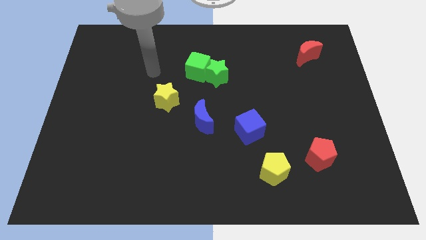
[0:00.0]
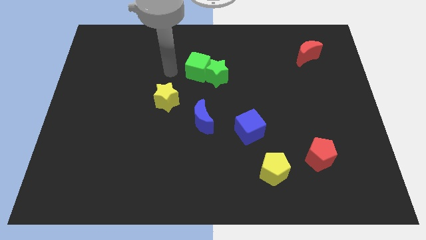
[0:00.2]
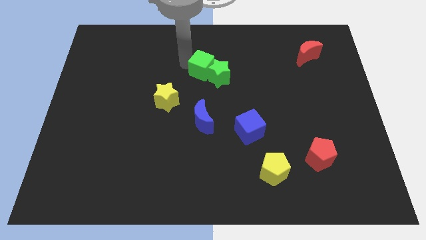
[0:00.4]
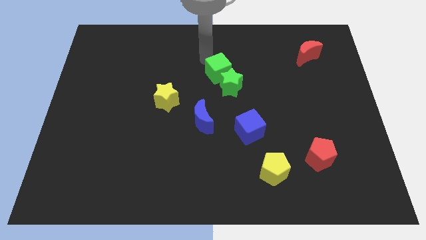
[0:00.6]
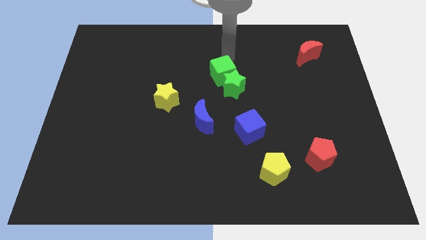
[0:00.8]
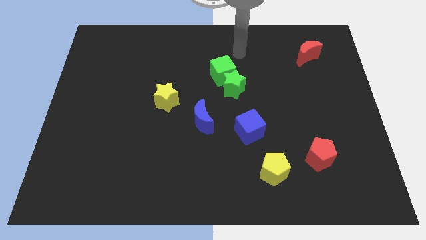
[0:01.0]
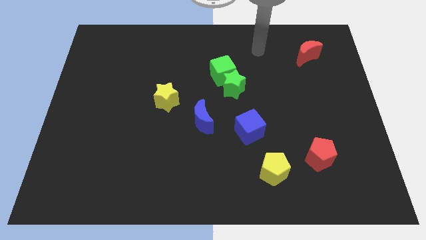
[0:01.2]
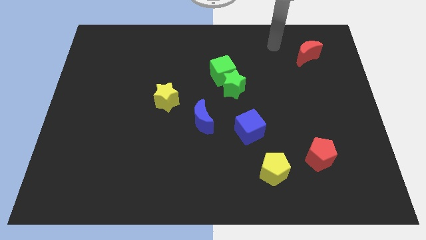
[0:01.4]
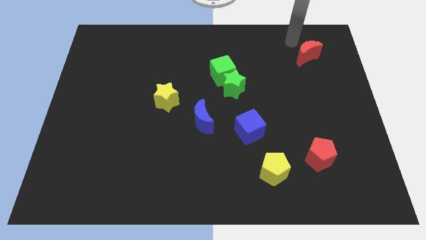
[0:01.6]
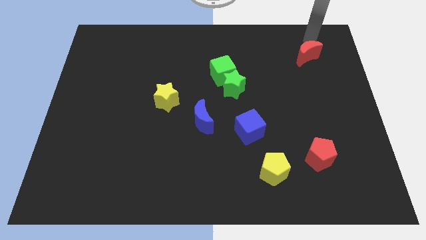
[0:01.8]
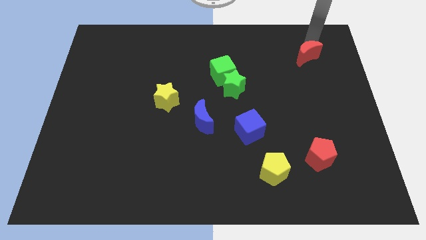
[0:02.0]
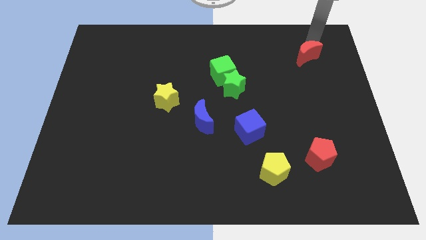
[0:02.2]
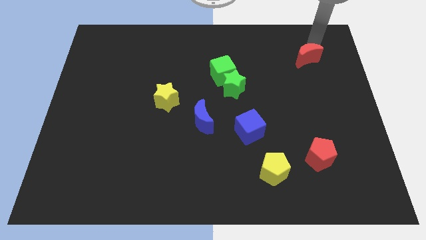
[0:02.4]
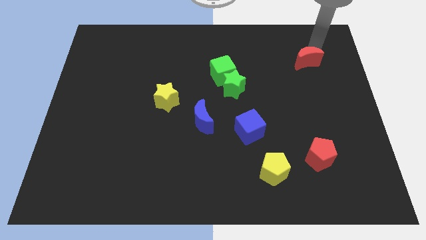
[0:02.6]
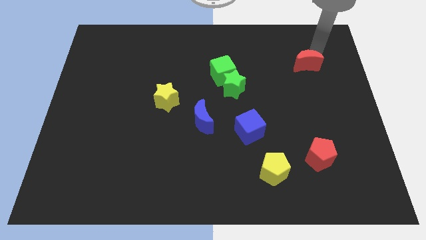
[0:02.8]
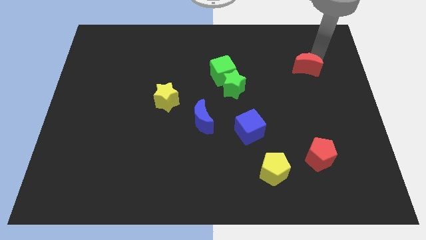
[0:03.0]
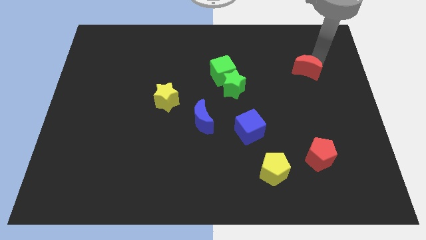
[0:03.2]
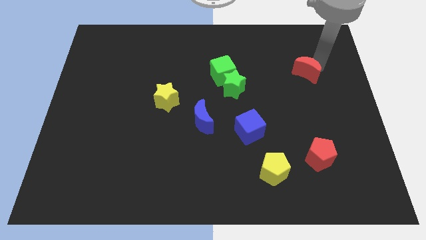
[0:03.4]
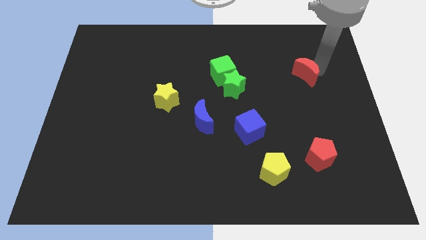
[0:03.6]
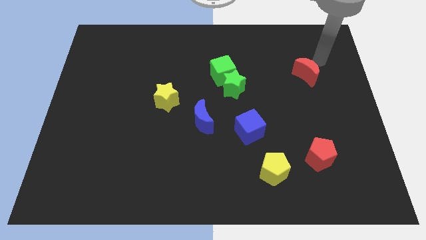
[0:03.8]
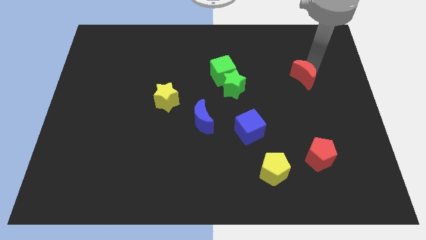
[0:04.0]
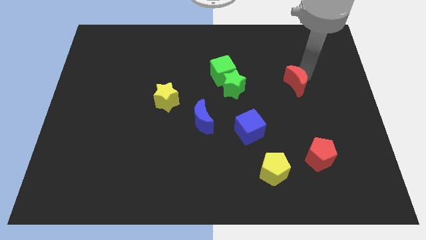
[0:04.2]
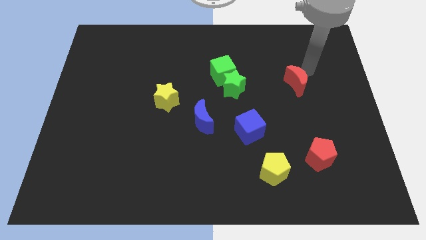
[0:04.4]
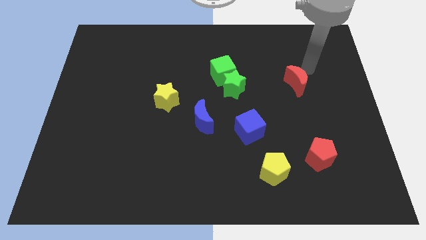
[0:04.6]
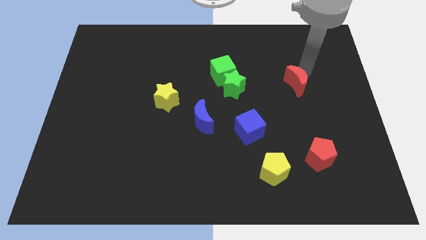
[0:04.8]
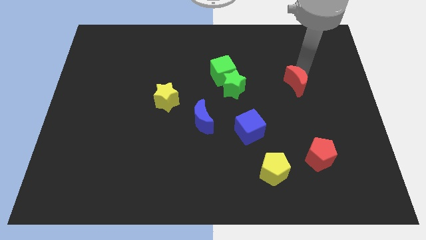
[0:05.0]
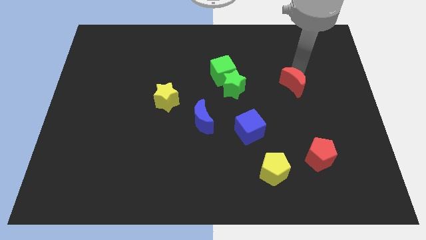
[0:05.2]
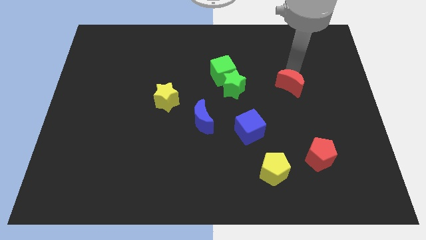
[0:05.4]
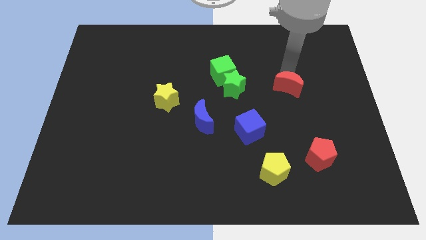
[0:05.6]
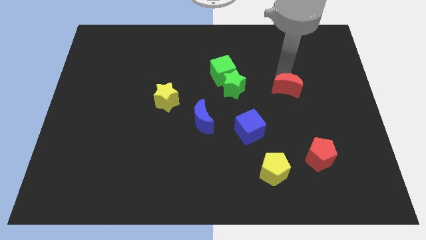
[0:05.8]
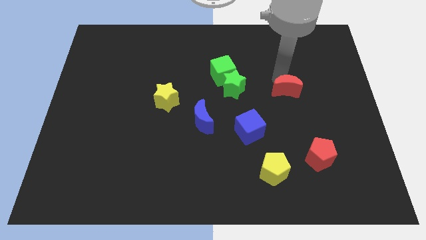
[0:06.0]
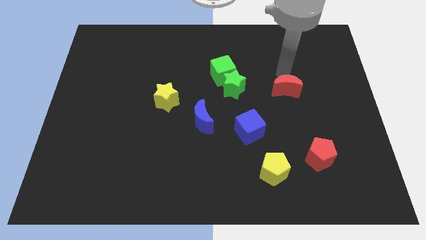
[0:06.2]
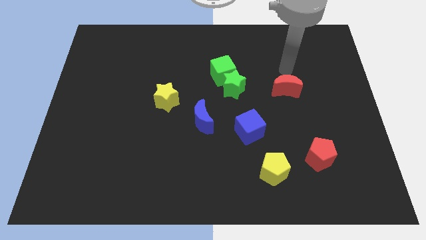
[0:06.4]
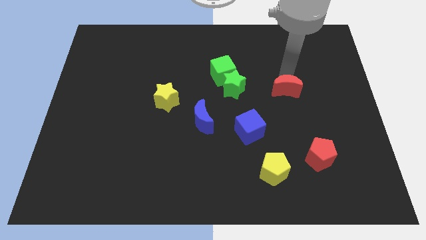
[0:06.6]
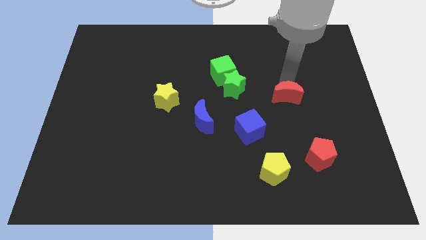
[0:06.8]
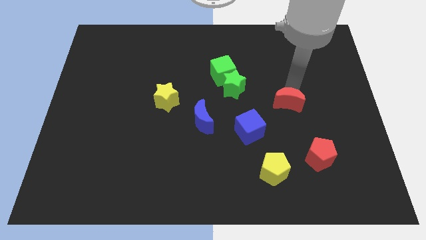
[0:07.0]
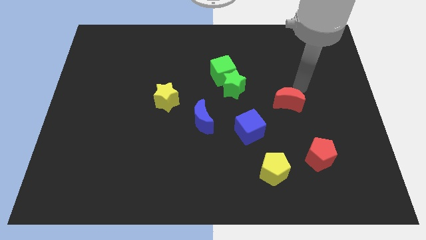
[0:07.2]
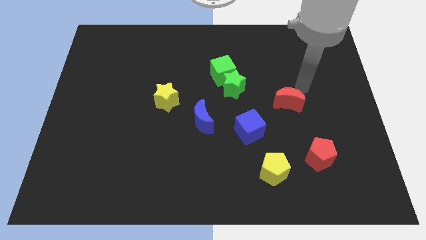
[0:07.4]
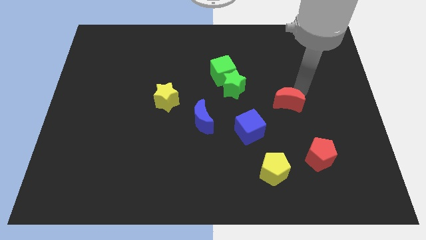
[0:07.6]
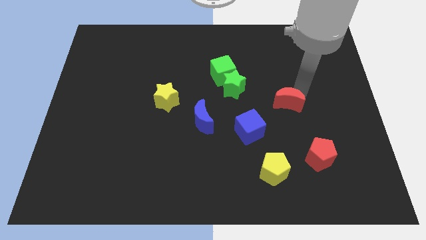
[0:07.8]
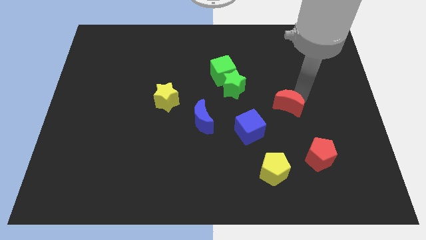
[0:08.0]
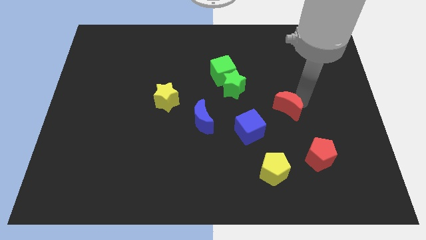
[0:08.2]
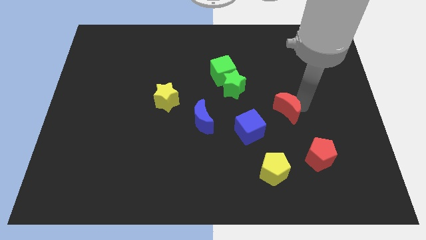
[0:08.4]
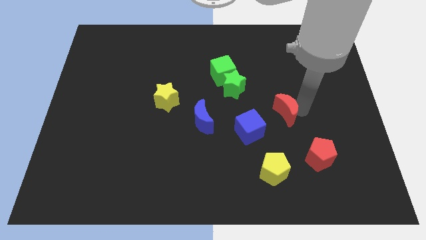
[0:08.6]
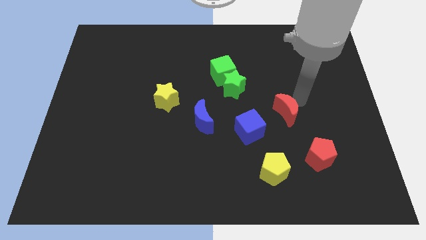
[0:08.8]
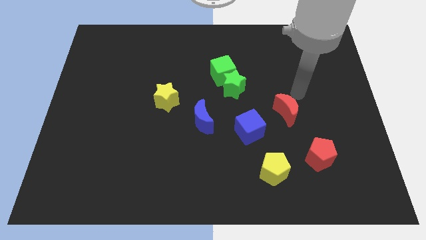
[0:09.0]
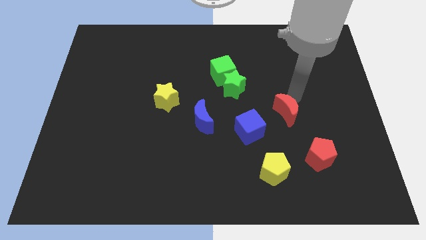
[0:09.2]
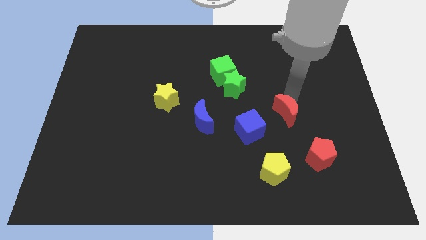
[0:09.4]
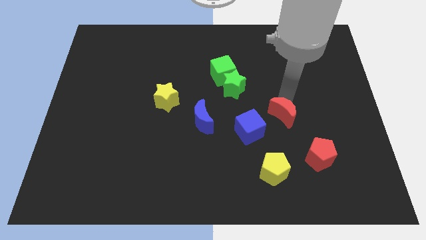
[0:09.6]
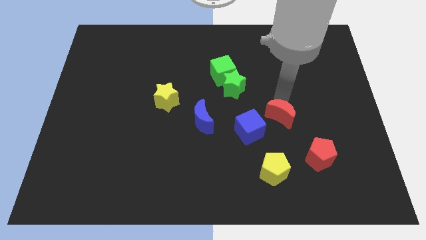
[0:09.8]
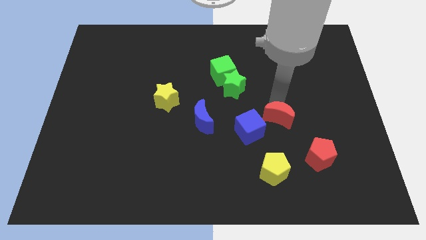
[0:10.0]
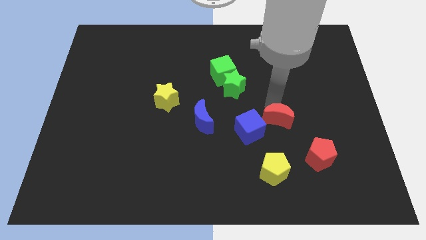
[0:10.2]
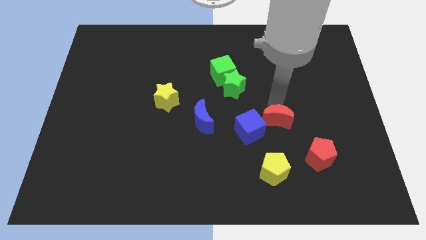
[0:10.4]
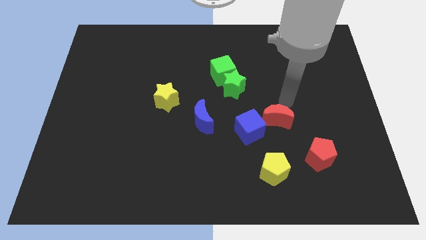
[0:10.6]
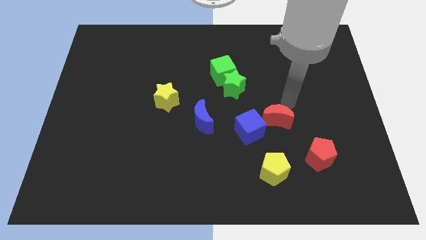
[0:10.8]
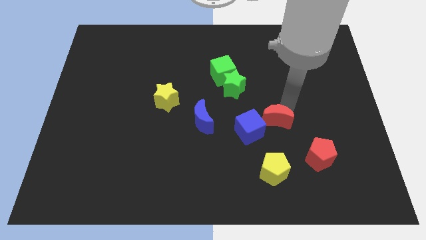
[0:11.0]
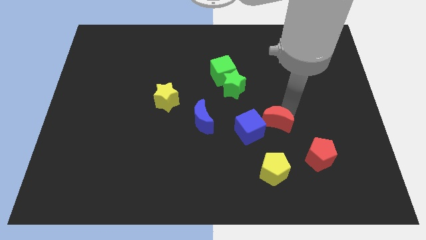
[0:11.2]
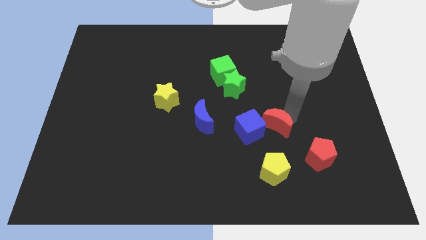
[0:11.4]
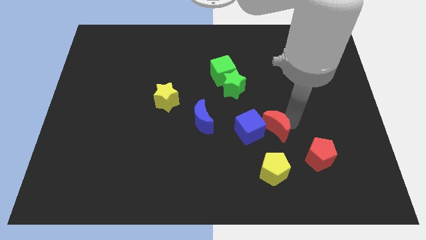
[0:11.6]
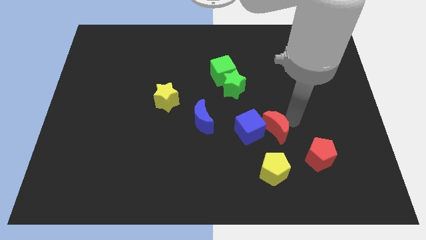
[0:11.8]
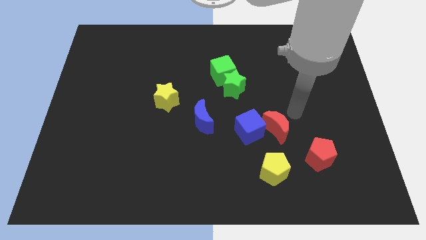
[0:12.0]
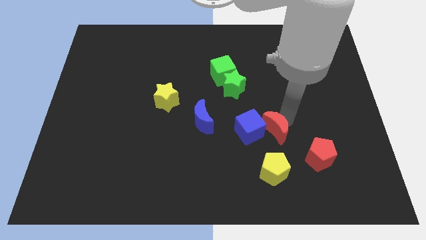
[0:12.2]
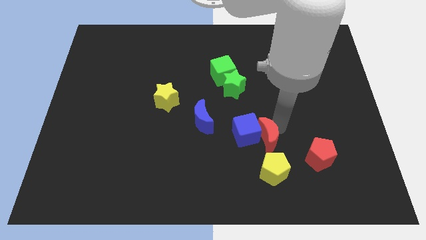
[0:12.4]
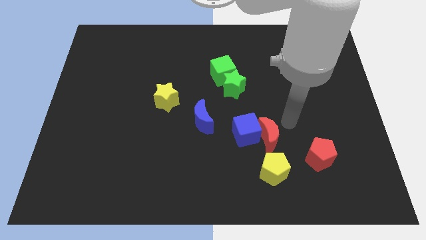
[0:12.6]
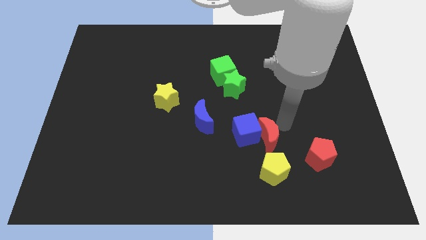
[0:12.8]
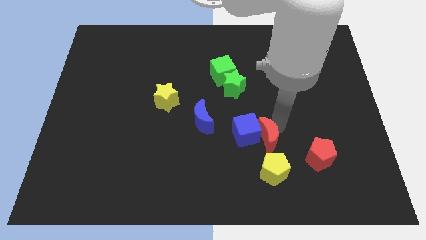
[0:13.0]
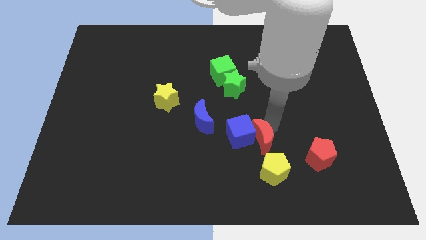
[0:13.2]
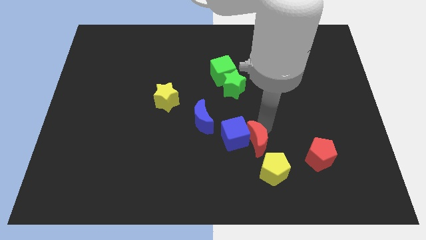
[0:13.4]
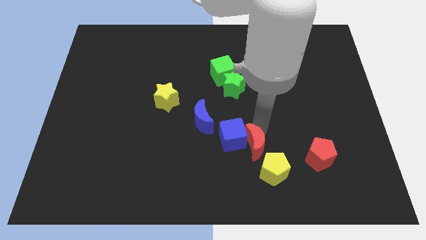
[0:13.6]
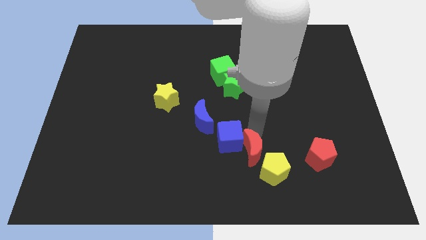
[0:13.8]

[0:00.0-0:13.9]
push the red moon to the left side of the yellow pentagon
